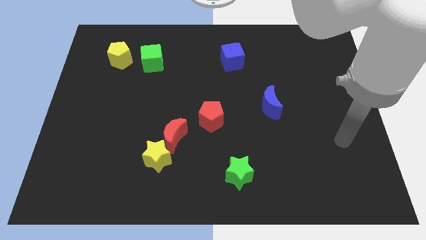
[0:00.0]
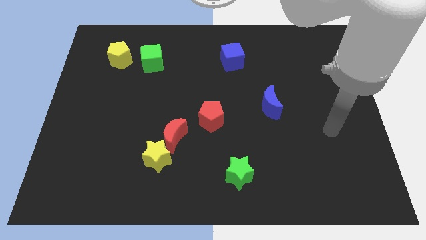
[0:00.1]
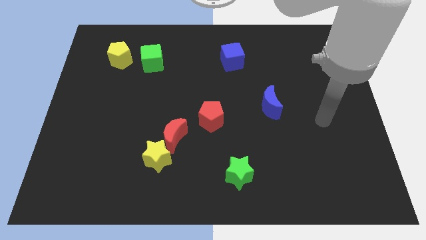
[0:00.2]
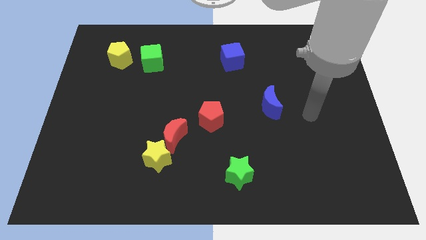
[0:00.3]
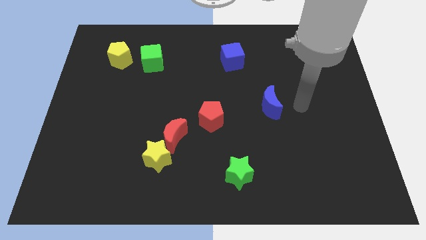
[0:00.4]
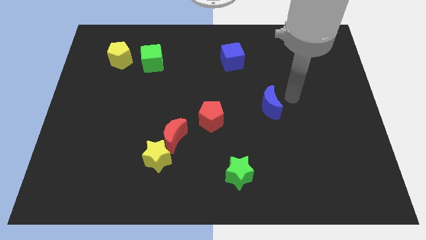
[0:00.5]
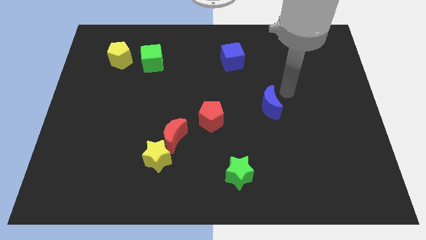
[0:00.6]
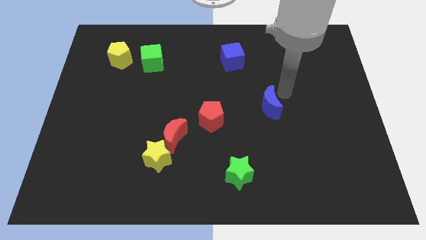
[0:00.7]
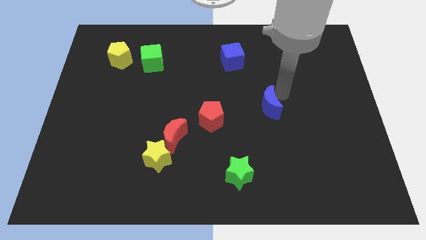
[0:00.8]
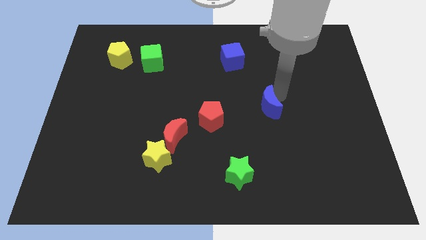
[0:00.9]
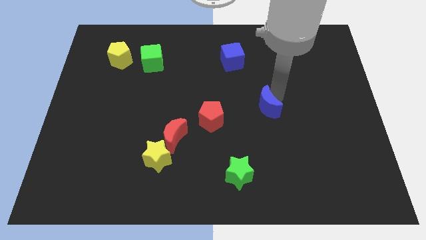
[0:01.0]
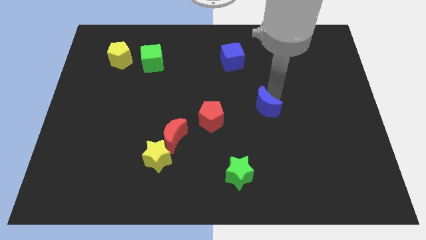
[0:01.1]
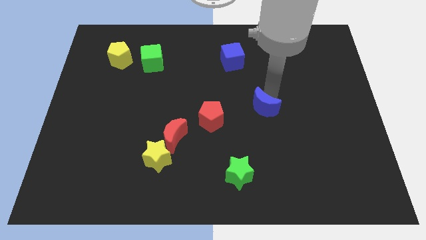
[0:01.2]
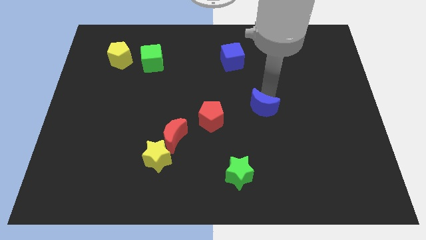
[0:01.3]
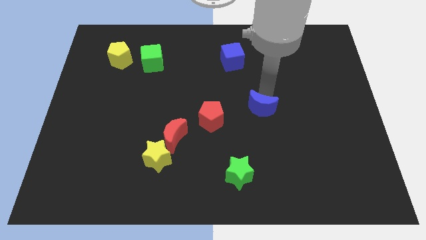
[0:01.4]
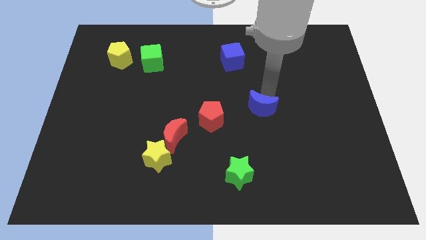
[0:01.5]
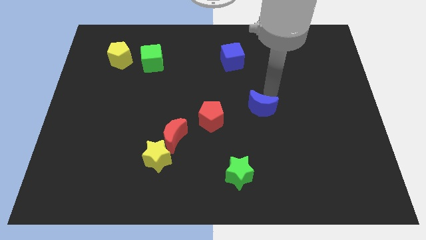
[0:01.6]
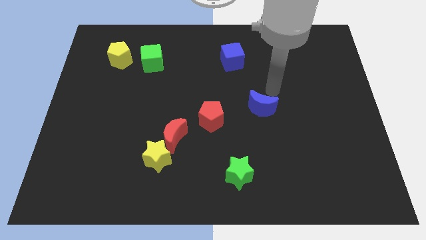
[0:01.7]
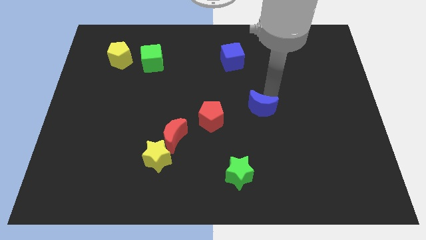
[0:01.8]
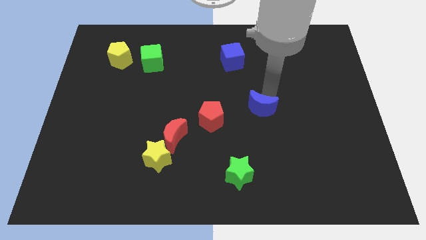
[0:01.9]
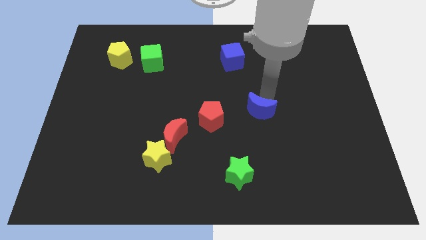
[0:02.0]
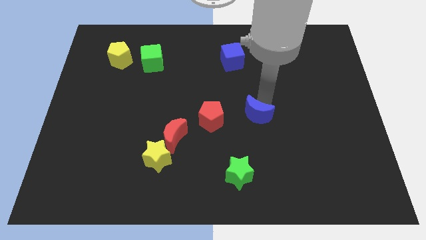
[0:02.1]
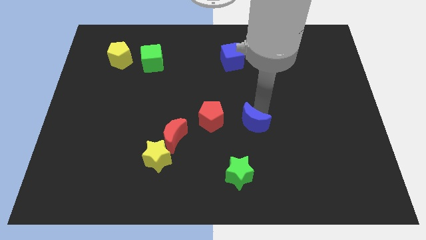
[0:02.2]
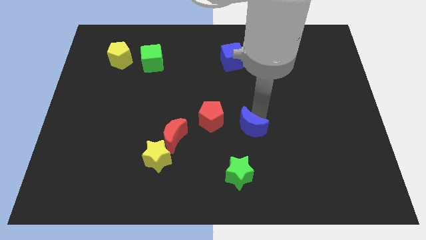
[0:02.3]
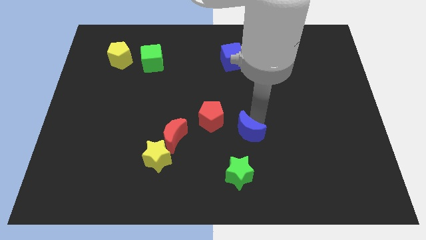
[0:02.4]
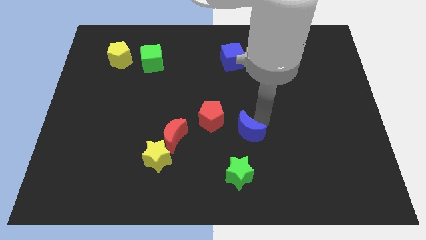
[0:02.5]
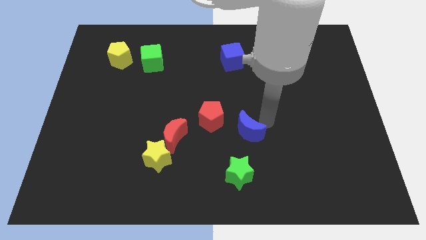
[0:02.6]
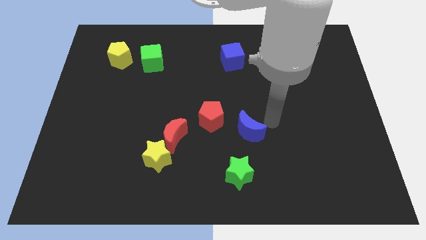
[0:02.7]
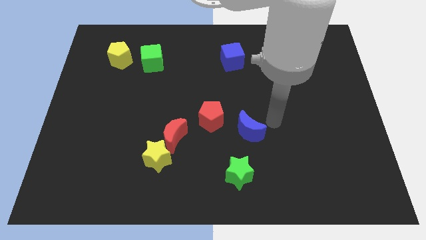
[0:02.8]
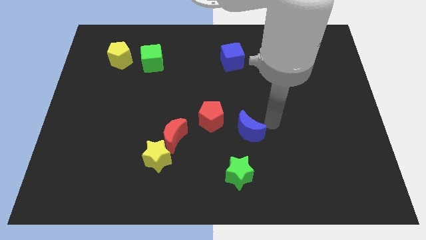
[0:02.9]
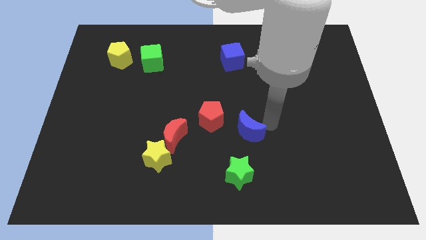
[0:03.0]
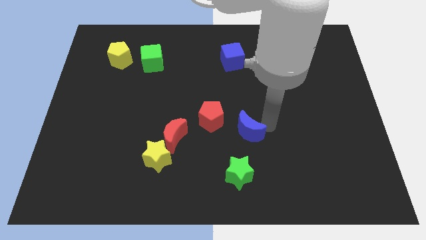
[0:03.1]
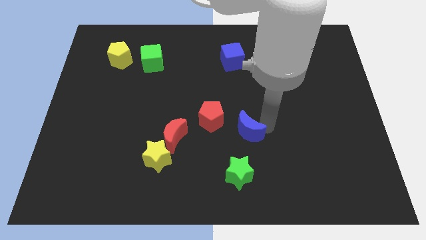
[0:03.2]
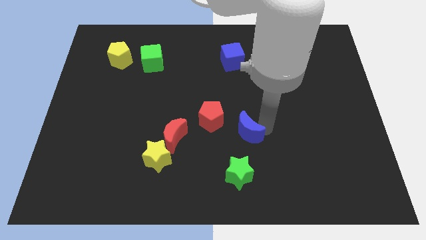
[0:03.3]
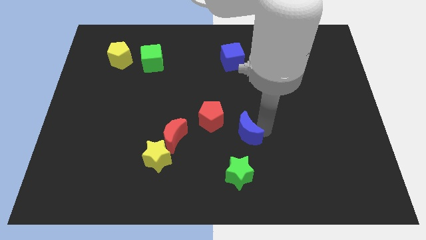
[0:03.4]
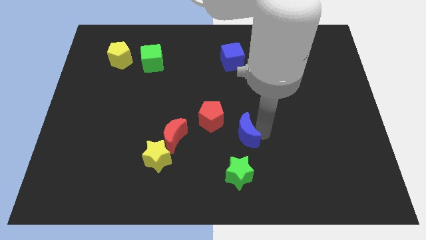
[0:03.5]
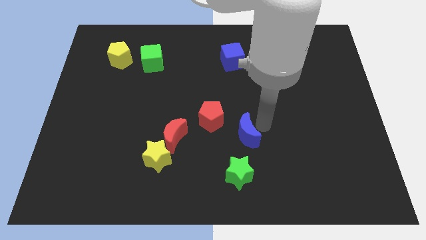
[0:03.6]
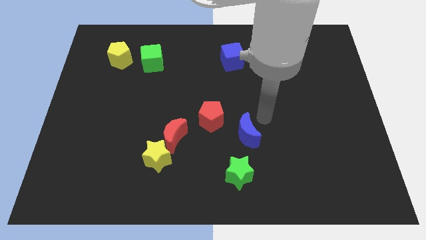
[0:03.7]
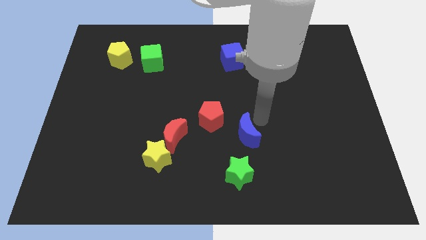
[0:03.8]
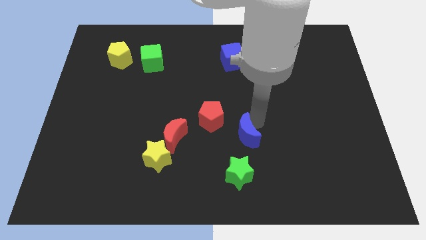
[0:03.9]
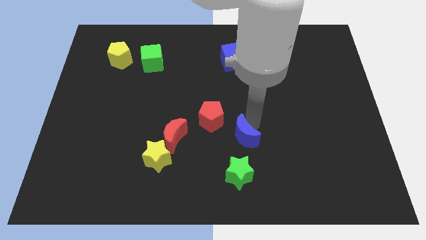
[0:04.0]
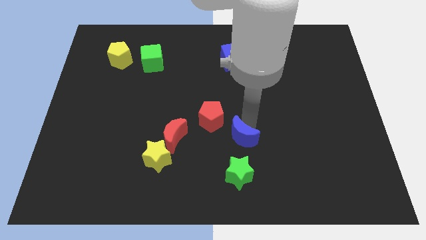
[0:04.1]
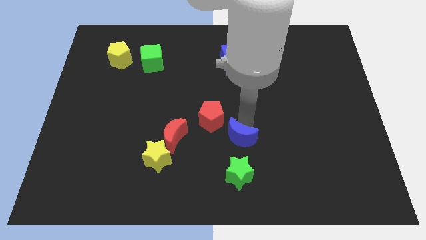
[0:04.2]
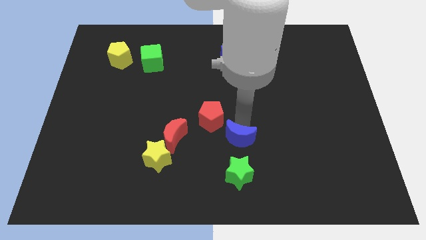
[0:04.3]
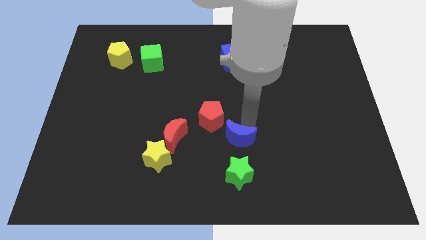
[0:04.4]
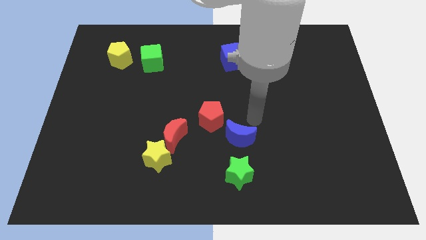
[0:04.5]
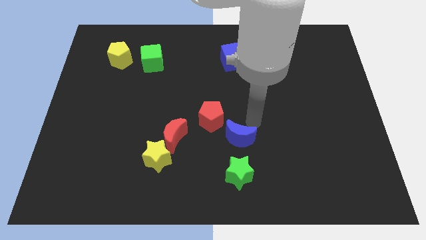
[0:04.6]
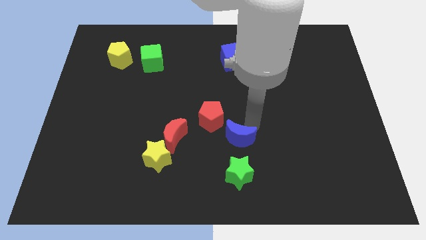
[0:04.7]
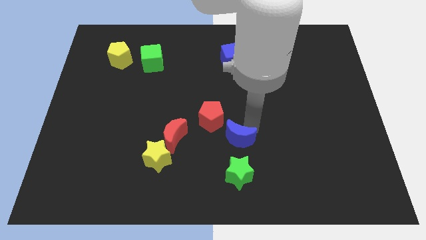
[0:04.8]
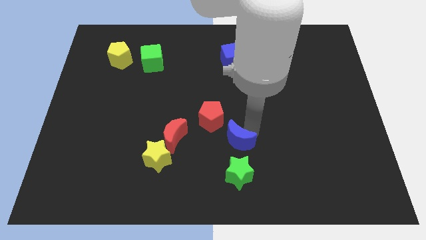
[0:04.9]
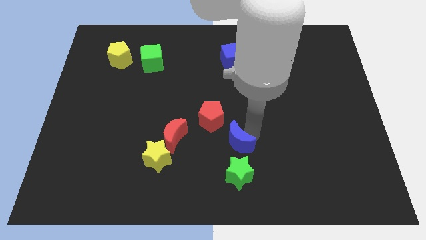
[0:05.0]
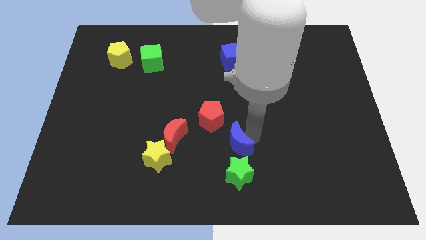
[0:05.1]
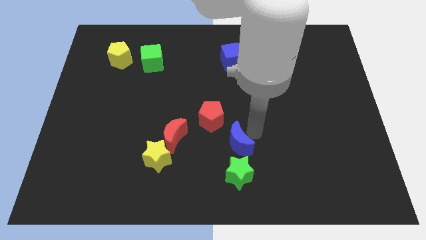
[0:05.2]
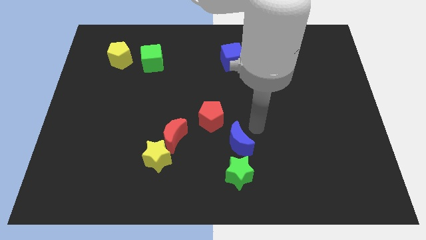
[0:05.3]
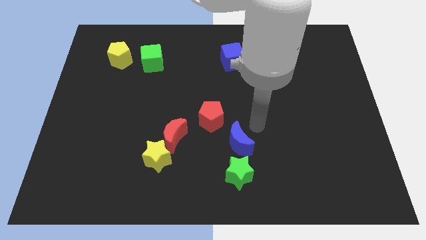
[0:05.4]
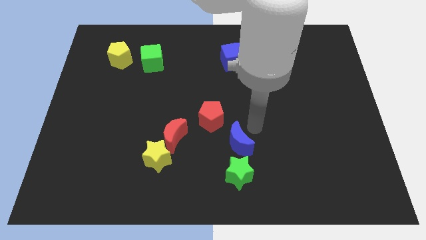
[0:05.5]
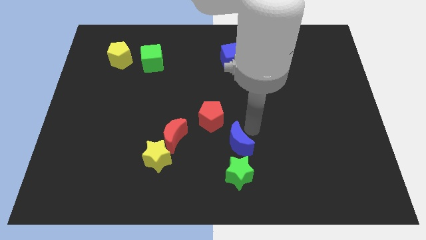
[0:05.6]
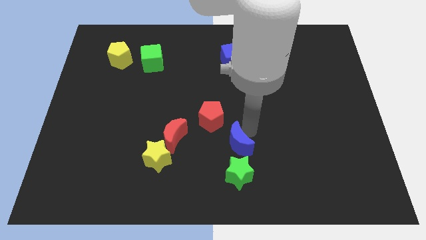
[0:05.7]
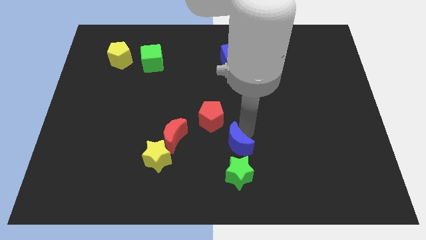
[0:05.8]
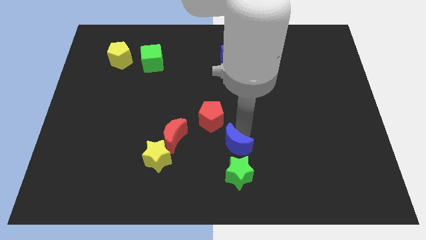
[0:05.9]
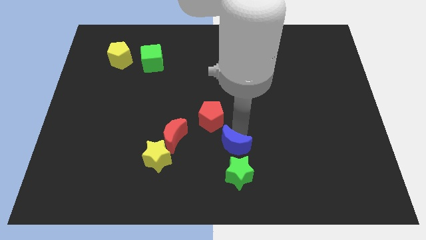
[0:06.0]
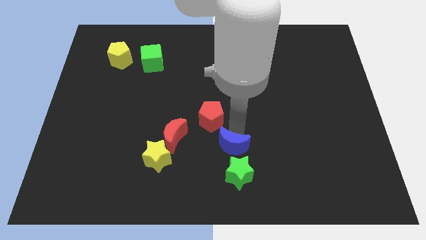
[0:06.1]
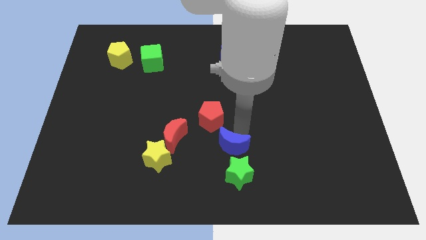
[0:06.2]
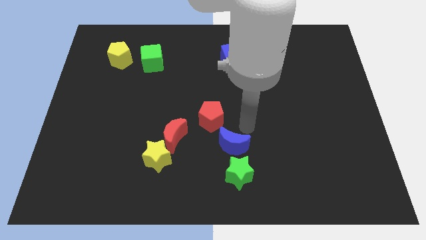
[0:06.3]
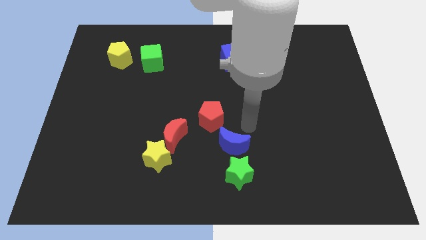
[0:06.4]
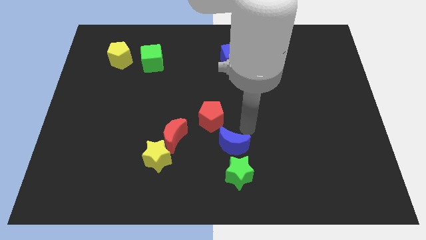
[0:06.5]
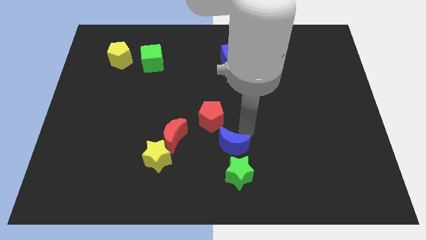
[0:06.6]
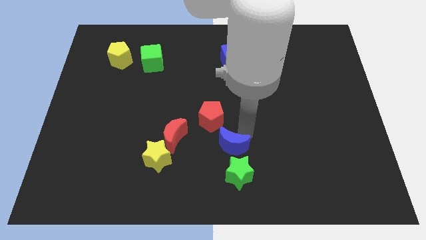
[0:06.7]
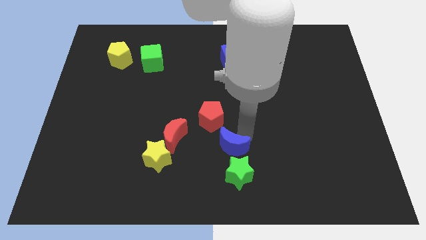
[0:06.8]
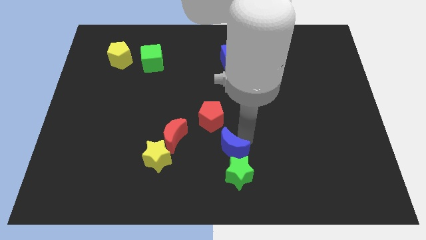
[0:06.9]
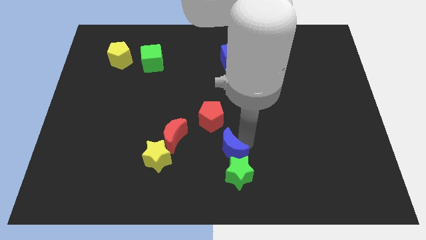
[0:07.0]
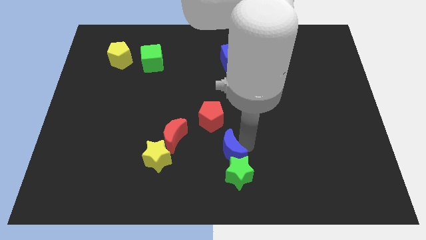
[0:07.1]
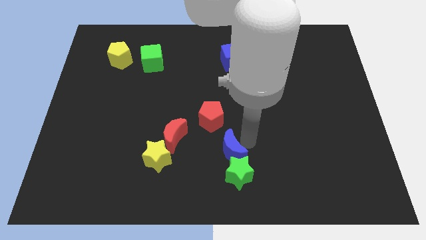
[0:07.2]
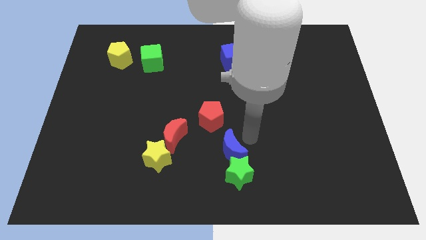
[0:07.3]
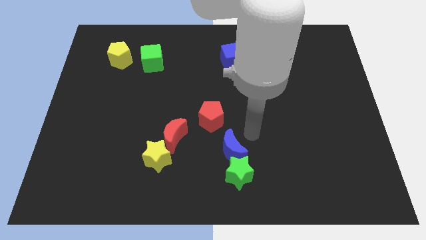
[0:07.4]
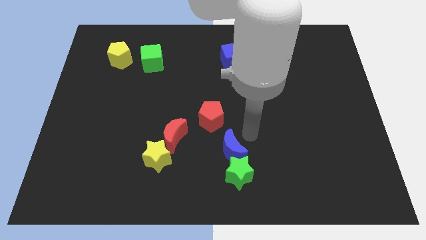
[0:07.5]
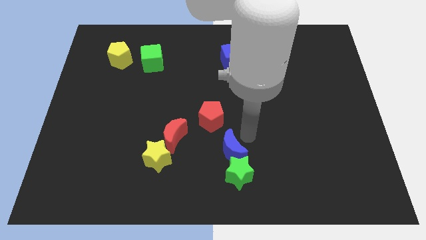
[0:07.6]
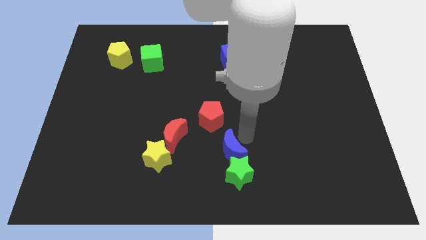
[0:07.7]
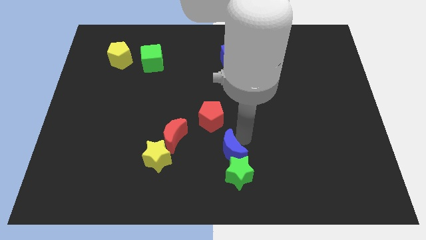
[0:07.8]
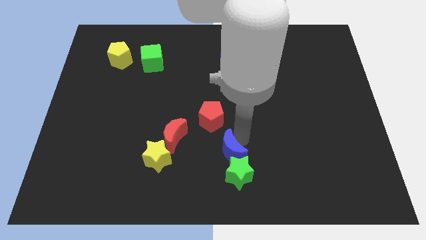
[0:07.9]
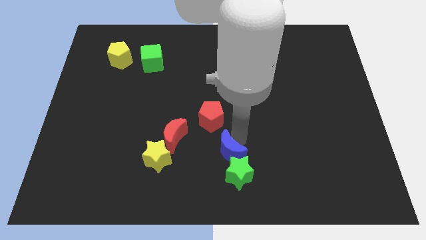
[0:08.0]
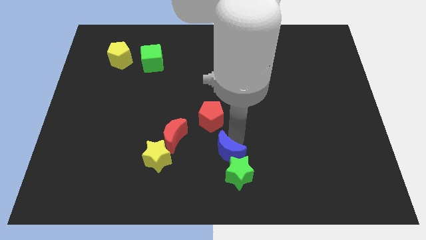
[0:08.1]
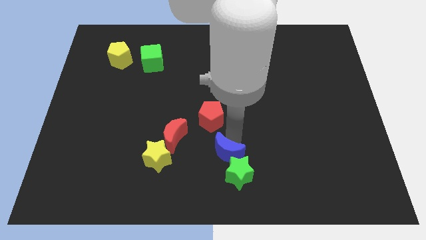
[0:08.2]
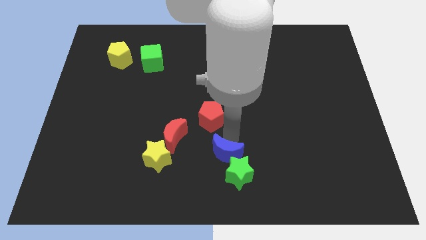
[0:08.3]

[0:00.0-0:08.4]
push the blue moon to the bottom
